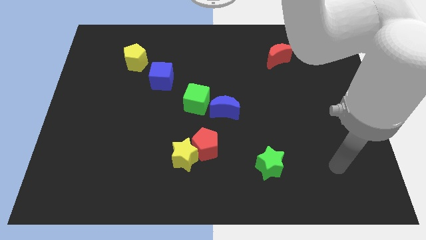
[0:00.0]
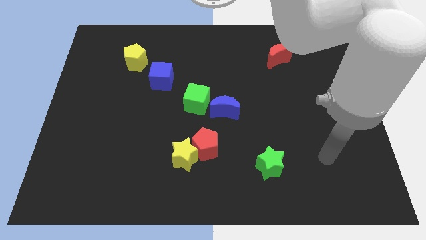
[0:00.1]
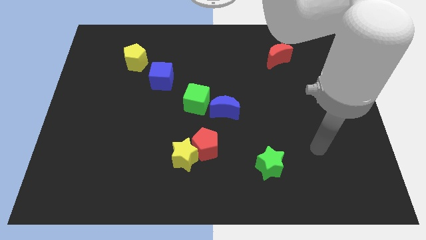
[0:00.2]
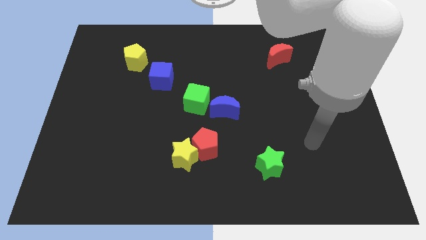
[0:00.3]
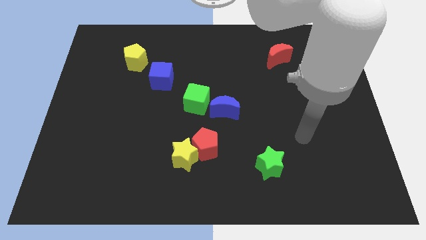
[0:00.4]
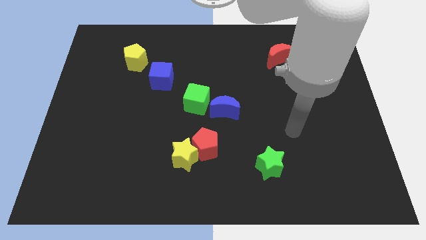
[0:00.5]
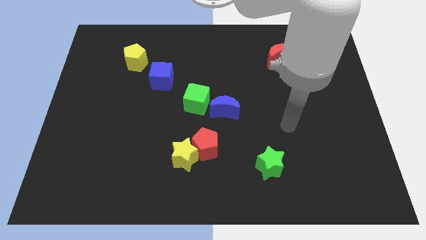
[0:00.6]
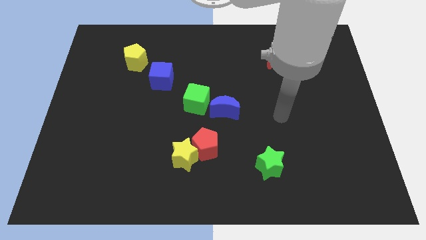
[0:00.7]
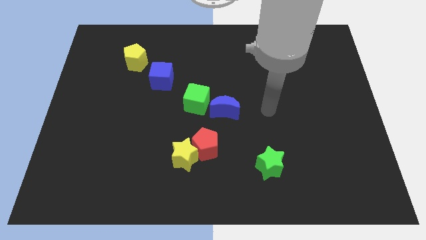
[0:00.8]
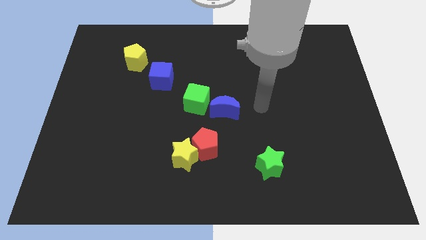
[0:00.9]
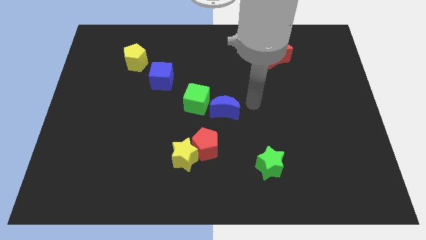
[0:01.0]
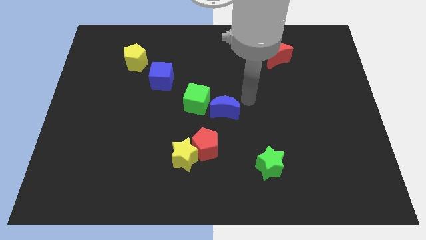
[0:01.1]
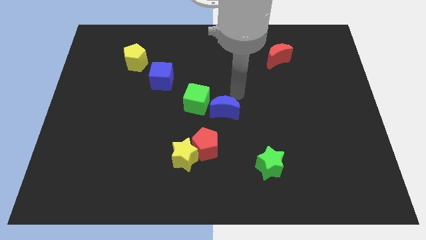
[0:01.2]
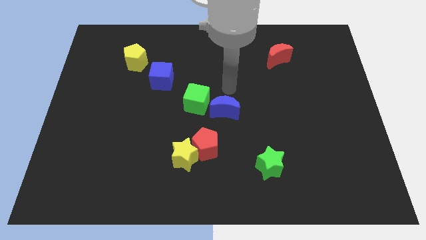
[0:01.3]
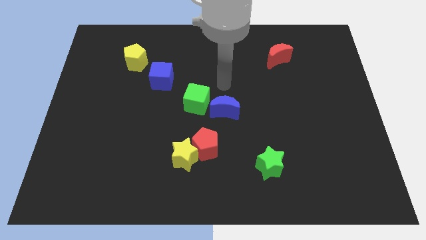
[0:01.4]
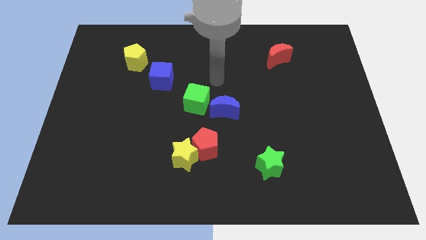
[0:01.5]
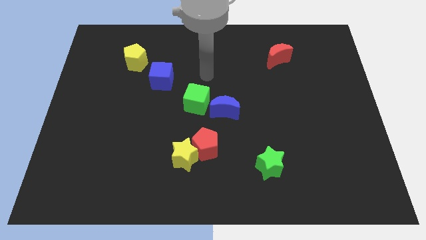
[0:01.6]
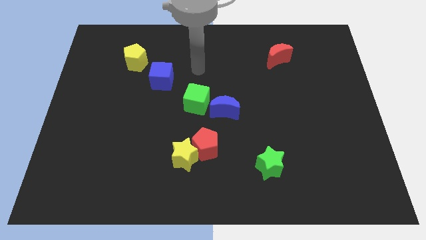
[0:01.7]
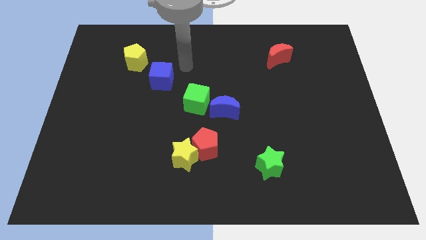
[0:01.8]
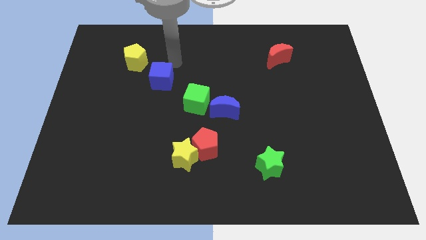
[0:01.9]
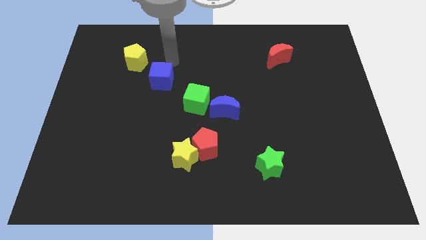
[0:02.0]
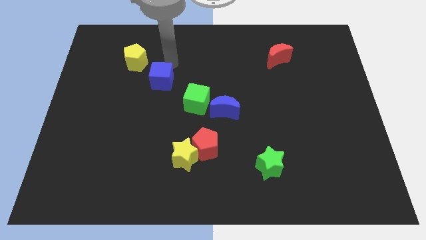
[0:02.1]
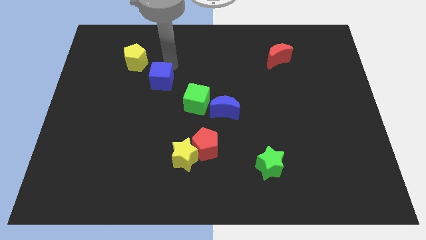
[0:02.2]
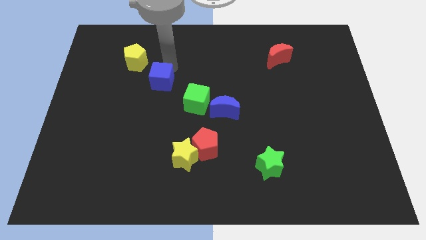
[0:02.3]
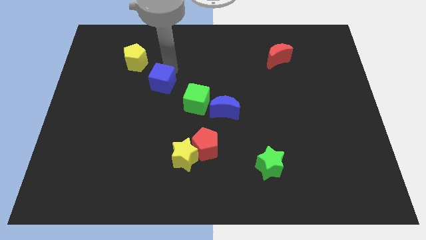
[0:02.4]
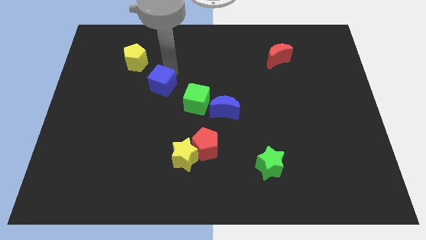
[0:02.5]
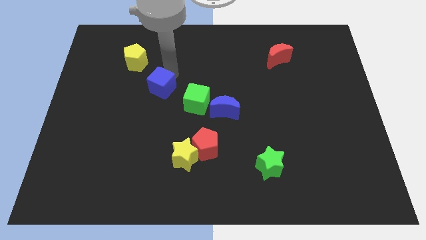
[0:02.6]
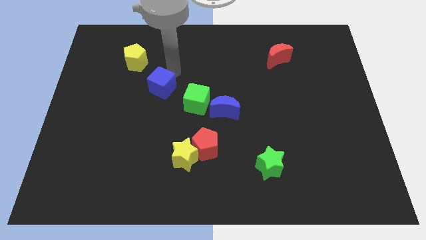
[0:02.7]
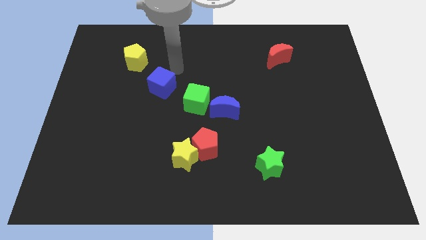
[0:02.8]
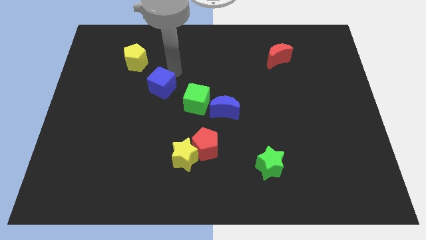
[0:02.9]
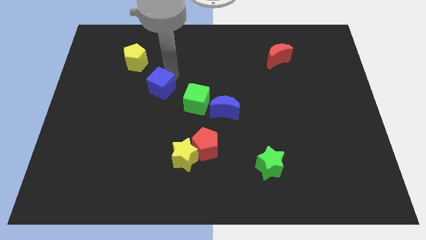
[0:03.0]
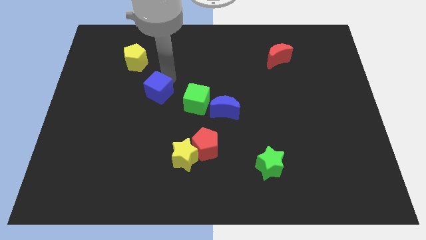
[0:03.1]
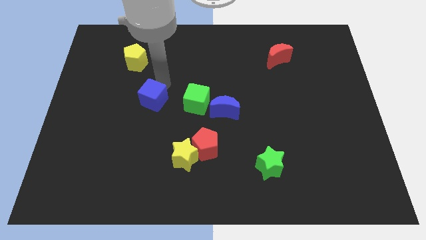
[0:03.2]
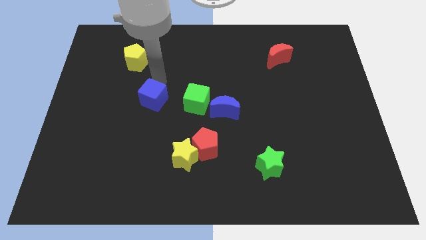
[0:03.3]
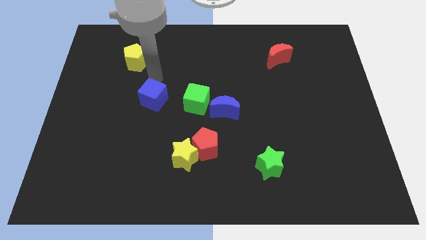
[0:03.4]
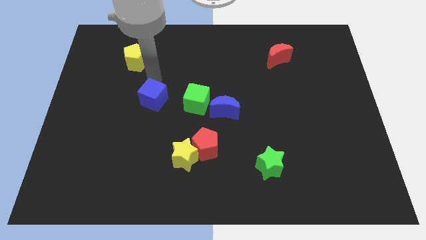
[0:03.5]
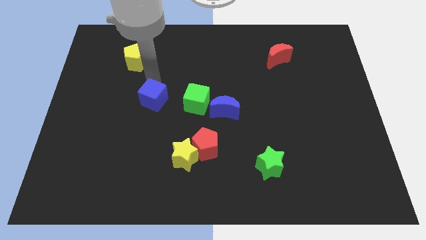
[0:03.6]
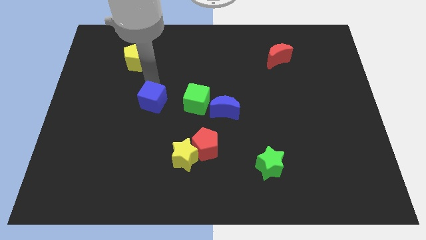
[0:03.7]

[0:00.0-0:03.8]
slide the blue cube downwards a little bit

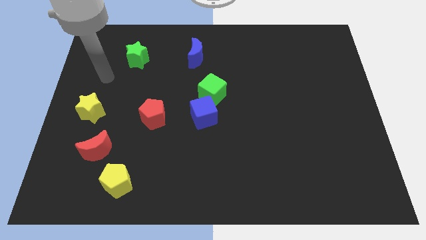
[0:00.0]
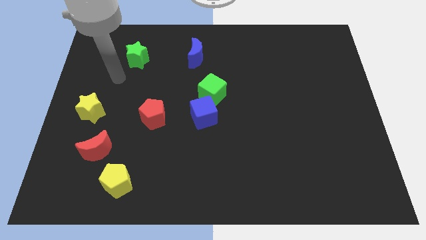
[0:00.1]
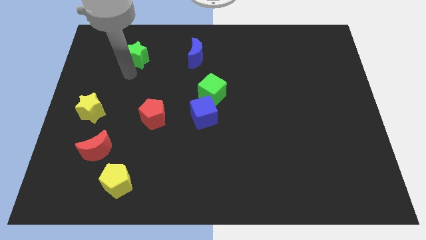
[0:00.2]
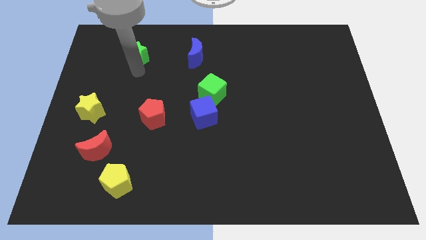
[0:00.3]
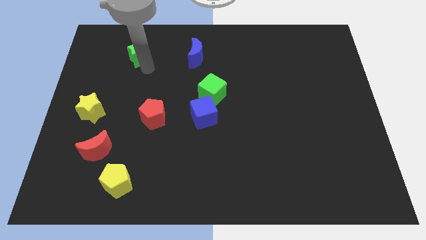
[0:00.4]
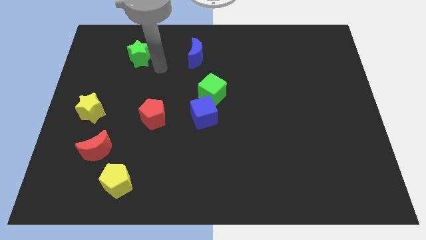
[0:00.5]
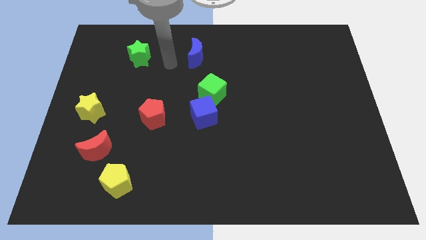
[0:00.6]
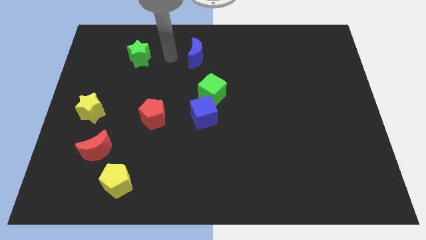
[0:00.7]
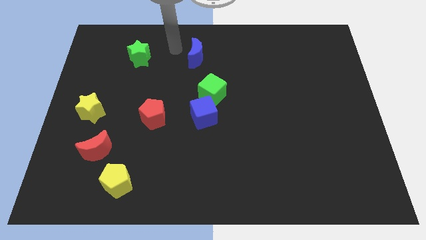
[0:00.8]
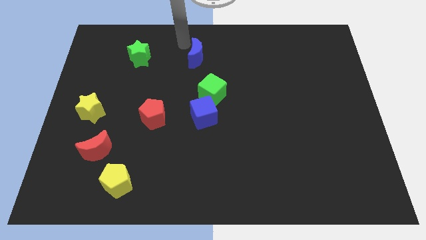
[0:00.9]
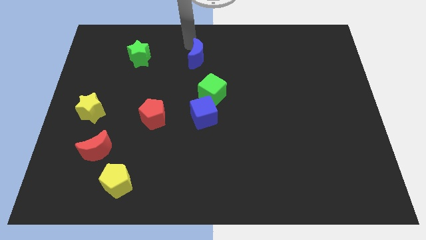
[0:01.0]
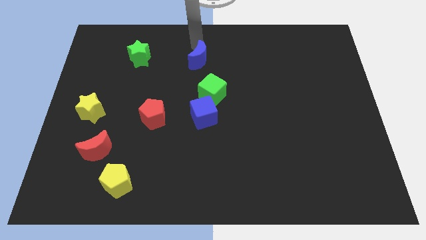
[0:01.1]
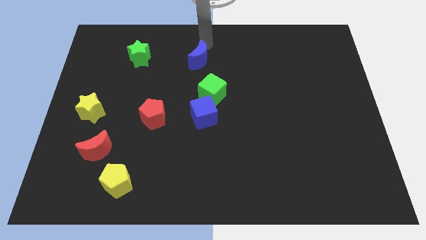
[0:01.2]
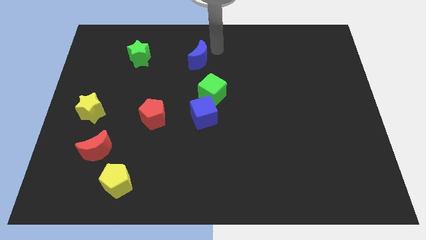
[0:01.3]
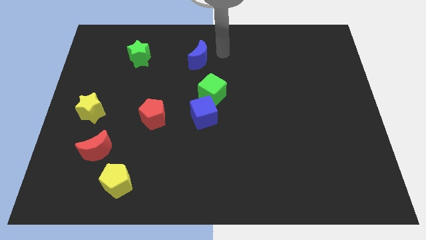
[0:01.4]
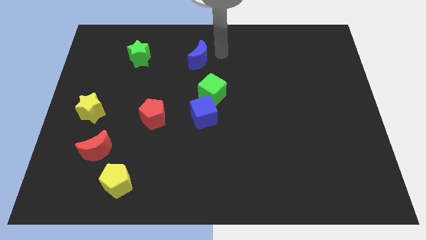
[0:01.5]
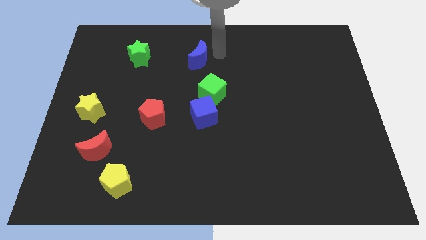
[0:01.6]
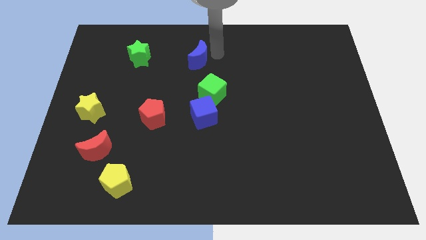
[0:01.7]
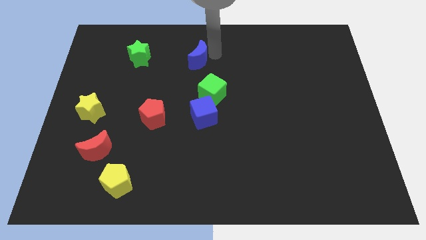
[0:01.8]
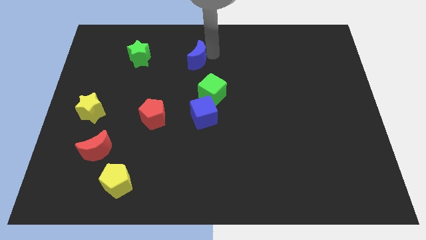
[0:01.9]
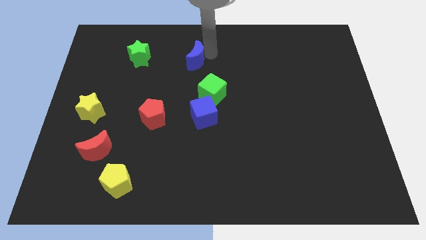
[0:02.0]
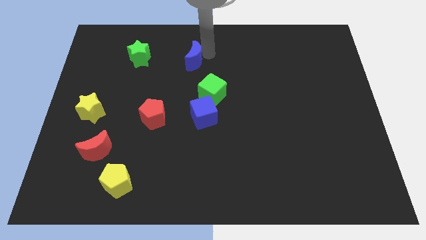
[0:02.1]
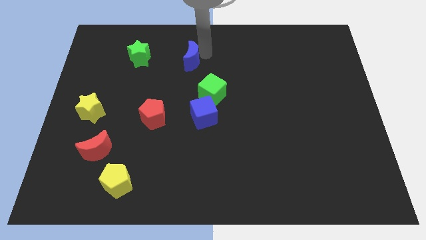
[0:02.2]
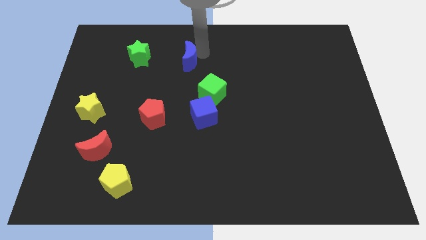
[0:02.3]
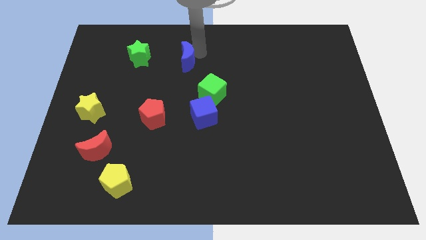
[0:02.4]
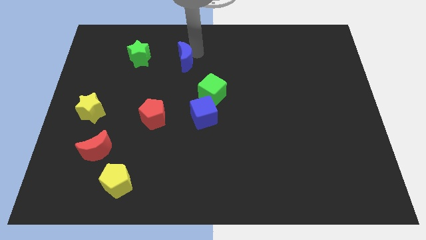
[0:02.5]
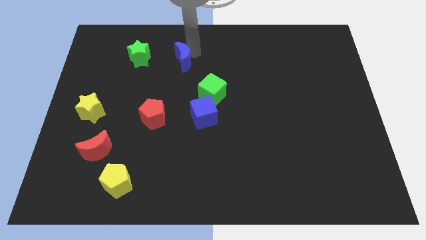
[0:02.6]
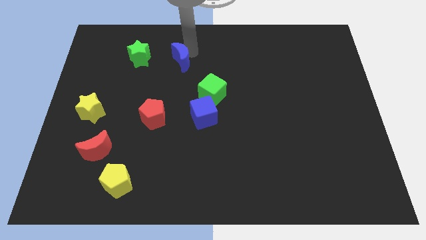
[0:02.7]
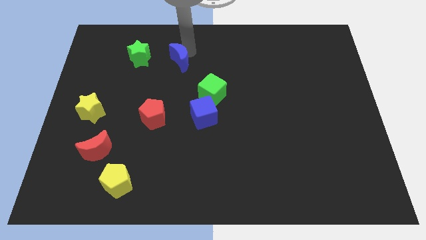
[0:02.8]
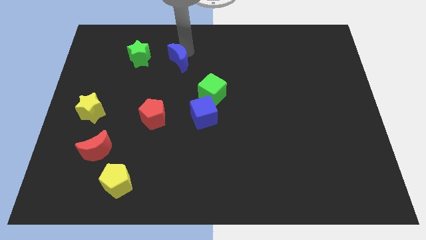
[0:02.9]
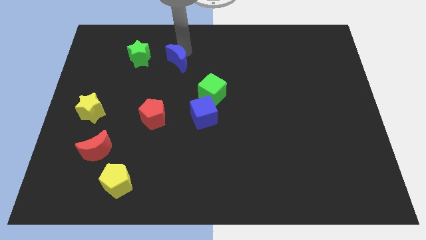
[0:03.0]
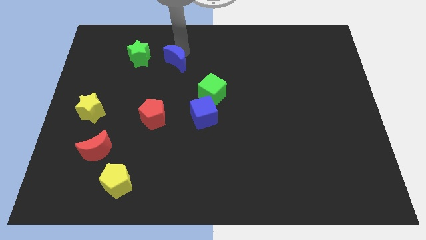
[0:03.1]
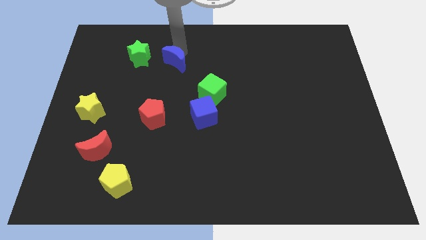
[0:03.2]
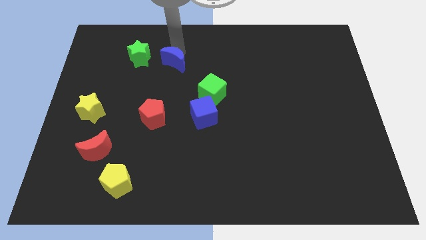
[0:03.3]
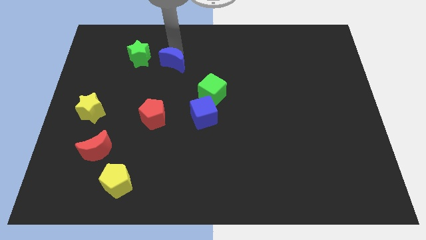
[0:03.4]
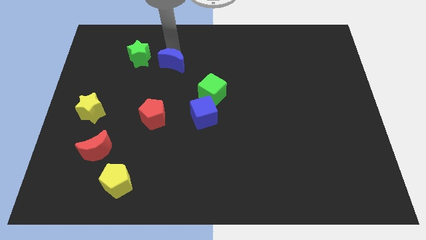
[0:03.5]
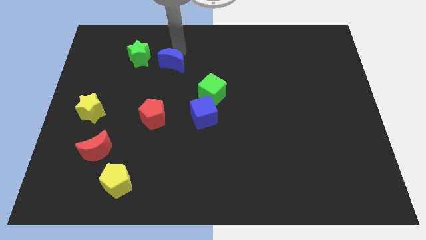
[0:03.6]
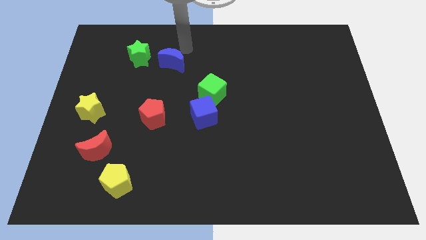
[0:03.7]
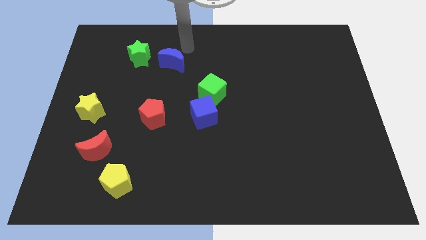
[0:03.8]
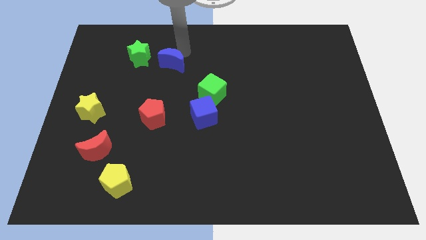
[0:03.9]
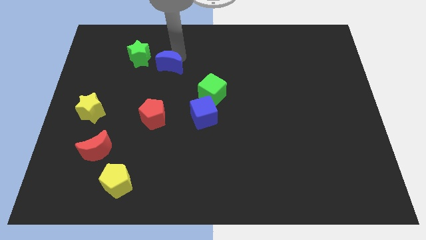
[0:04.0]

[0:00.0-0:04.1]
push the blue moon a little down and to the left diagonally

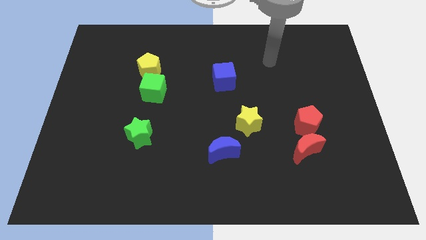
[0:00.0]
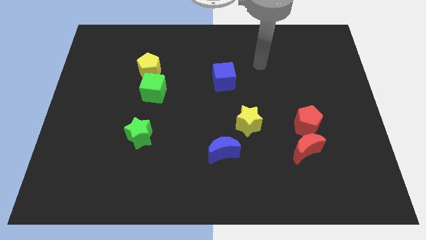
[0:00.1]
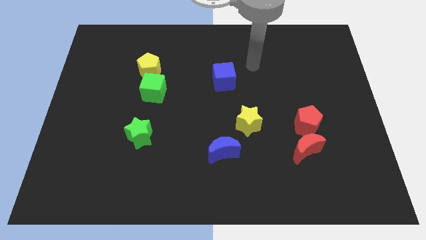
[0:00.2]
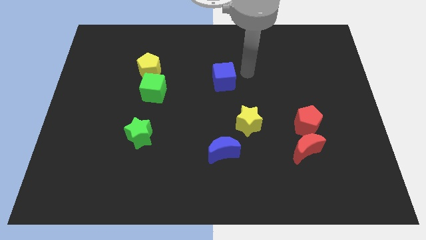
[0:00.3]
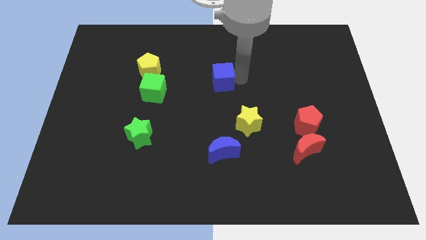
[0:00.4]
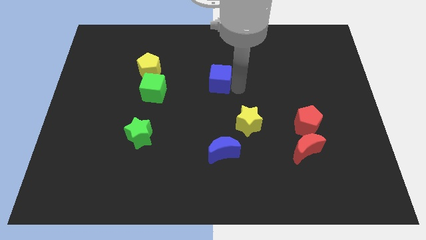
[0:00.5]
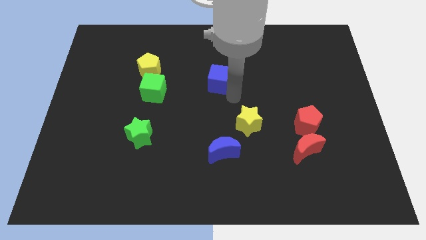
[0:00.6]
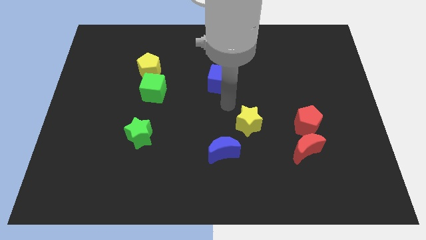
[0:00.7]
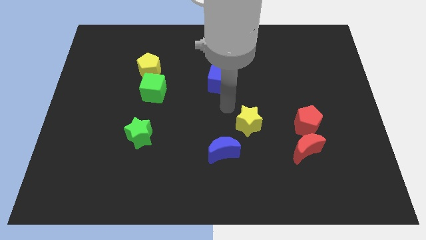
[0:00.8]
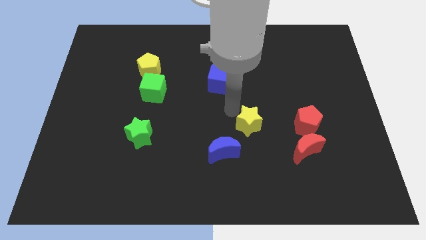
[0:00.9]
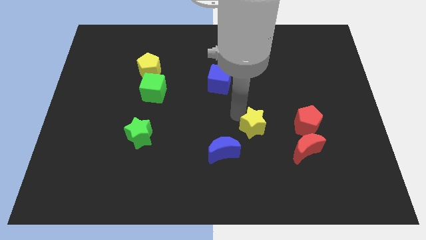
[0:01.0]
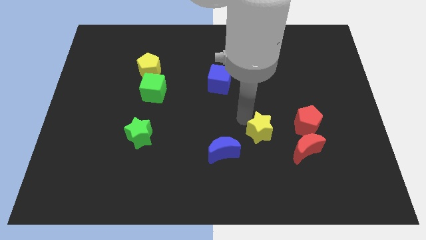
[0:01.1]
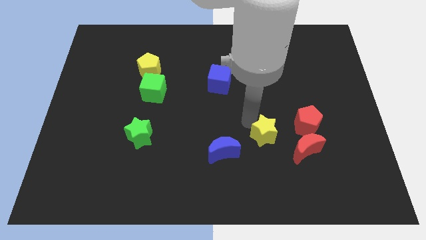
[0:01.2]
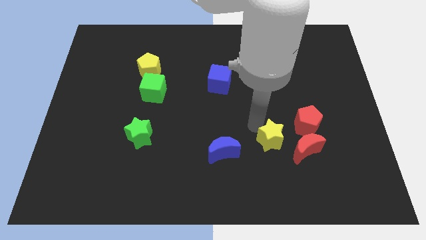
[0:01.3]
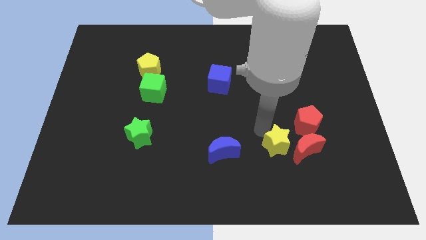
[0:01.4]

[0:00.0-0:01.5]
slightly push the yellow star diagonally downwards and to the right
